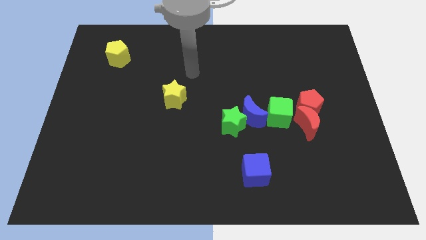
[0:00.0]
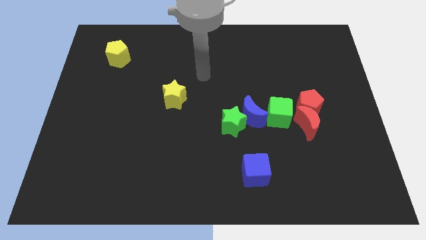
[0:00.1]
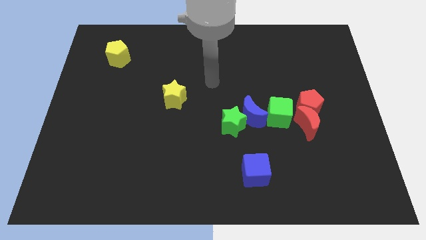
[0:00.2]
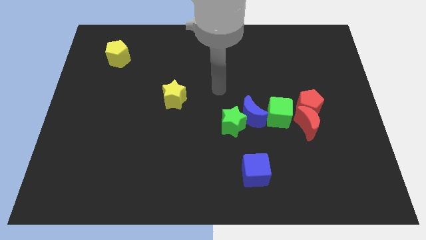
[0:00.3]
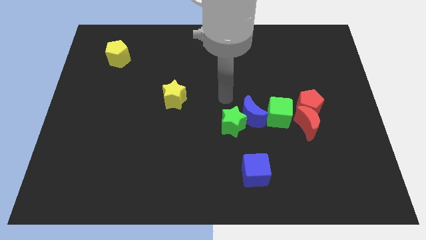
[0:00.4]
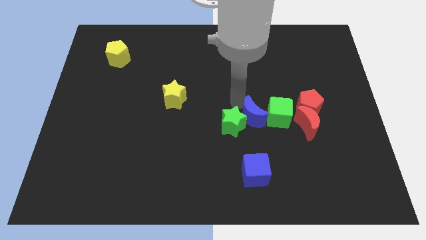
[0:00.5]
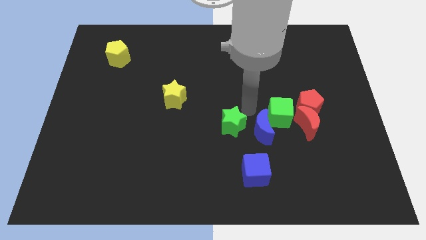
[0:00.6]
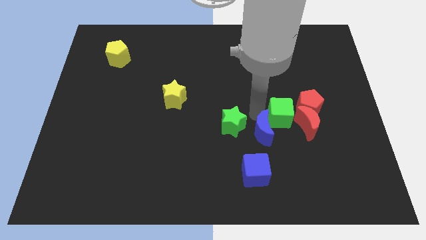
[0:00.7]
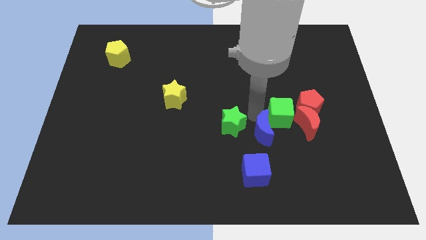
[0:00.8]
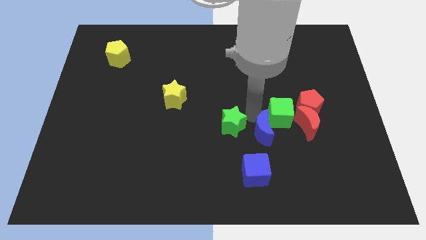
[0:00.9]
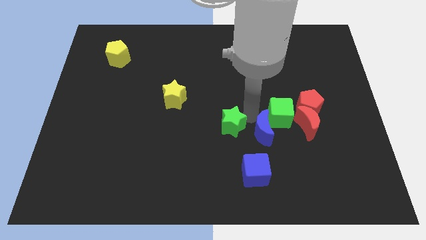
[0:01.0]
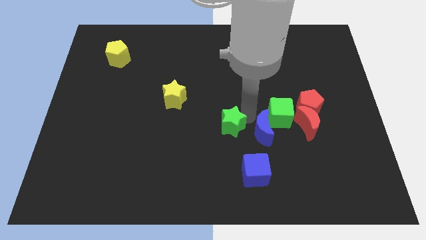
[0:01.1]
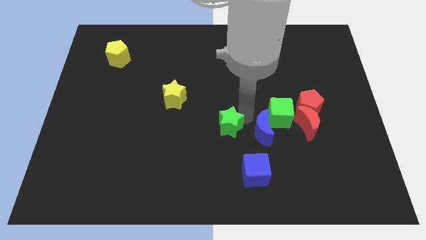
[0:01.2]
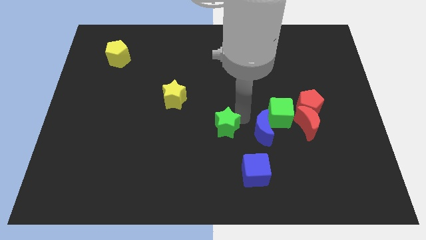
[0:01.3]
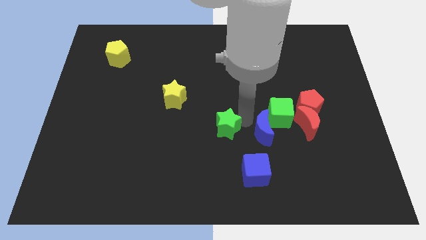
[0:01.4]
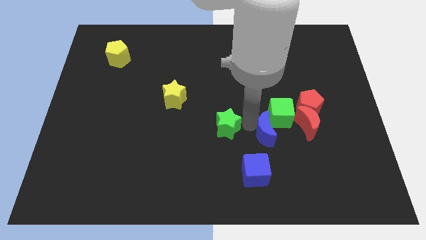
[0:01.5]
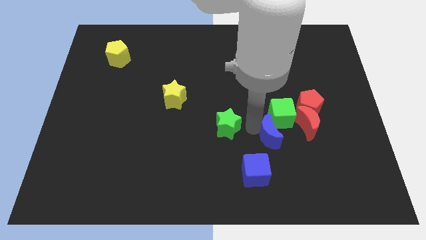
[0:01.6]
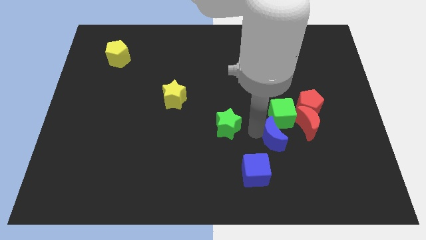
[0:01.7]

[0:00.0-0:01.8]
move the green star away from the blue moon

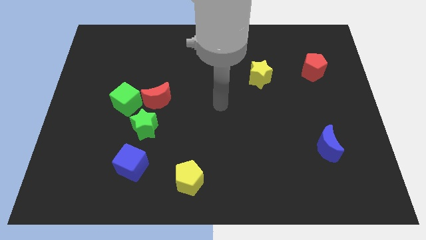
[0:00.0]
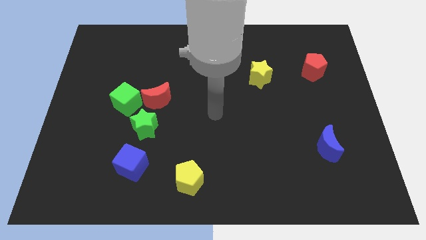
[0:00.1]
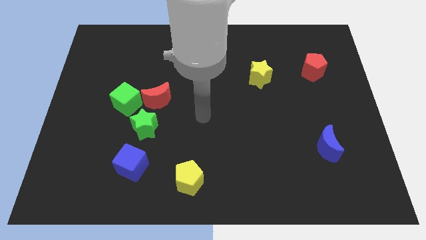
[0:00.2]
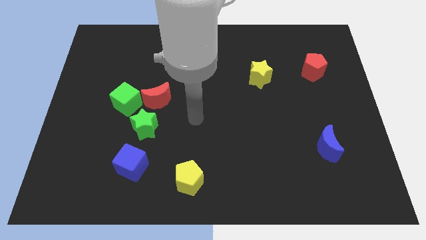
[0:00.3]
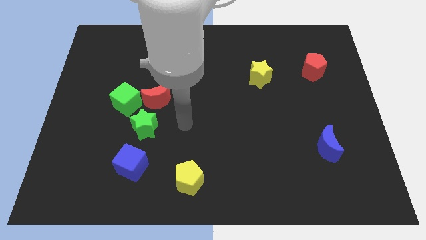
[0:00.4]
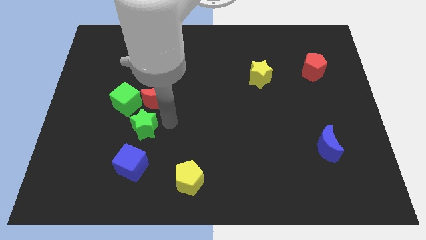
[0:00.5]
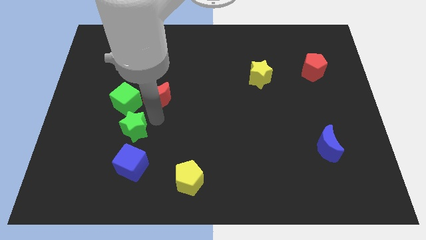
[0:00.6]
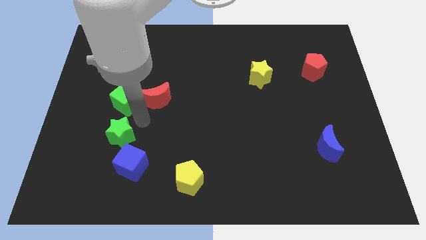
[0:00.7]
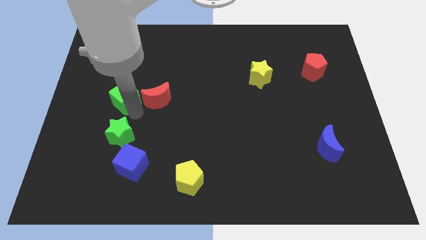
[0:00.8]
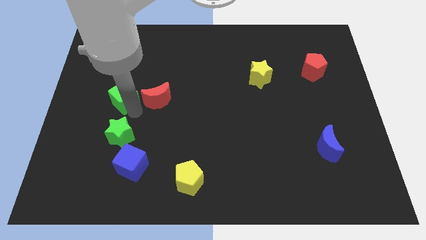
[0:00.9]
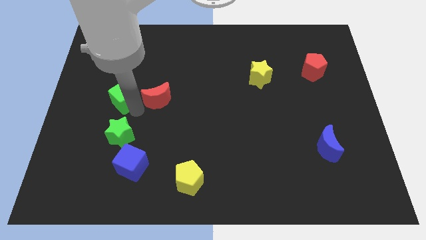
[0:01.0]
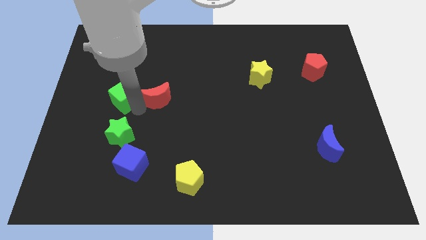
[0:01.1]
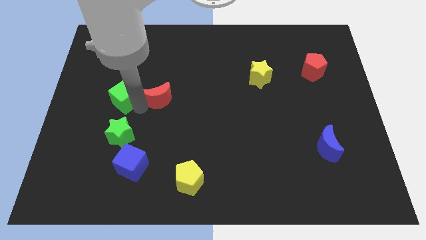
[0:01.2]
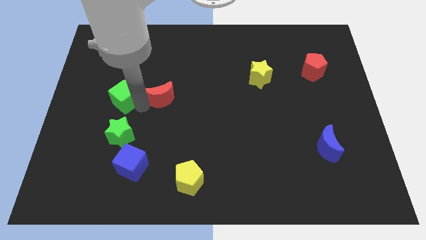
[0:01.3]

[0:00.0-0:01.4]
pull the red moon apart from the green cube and green star

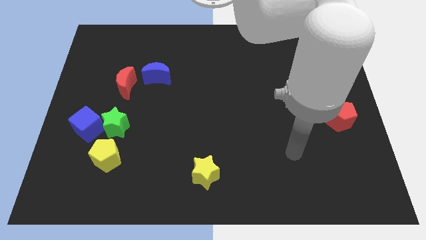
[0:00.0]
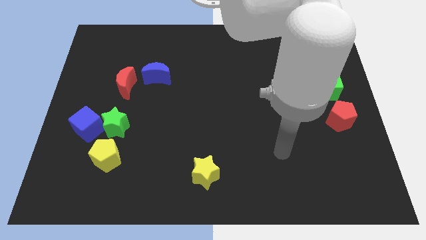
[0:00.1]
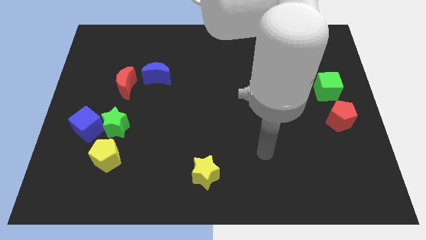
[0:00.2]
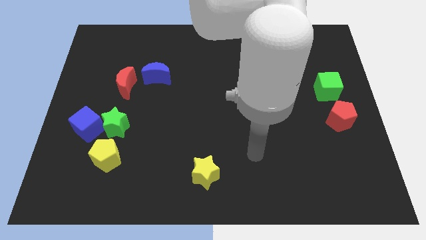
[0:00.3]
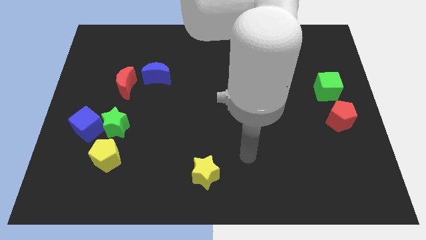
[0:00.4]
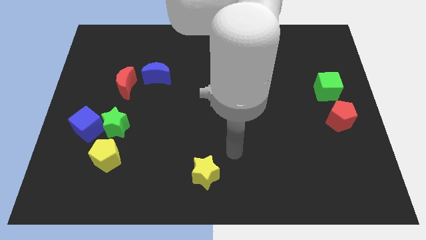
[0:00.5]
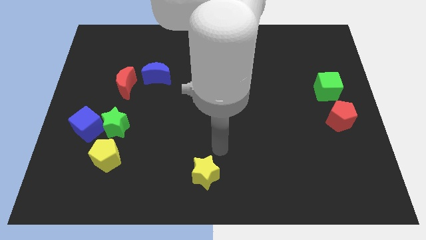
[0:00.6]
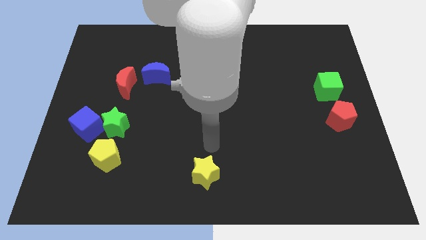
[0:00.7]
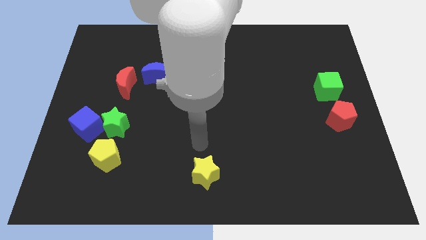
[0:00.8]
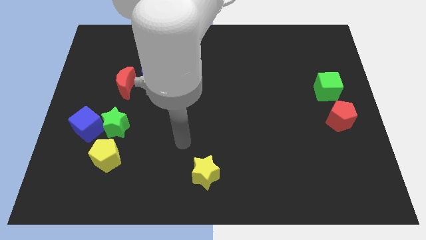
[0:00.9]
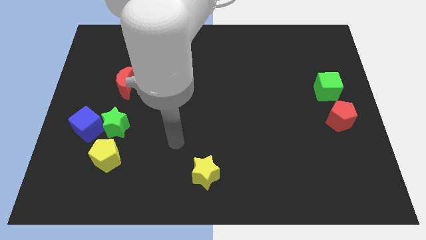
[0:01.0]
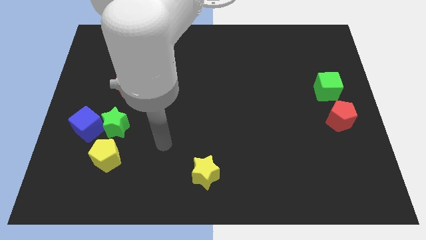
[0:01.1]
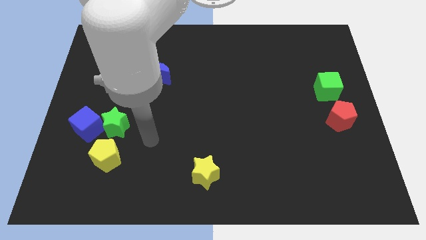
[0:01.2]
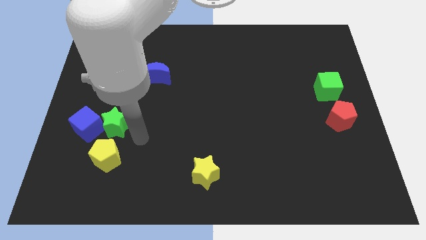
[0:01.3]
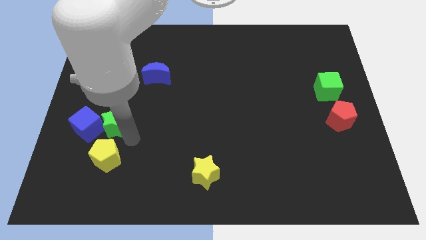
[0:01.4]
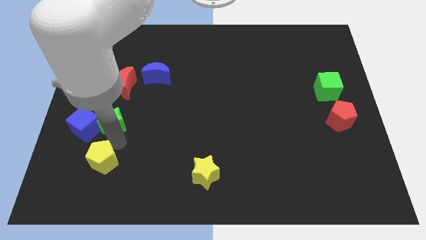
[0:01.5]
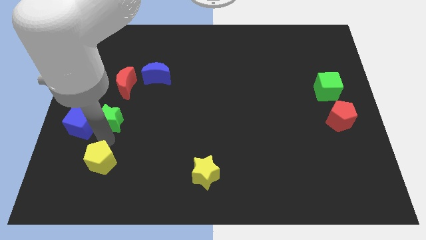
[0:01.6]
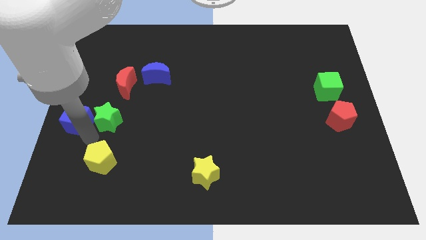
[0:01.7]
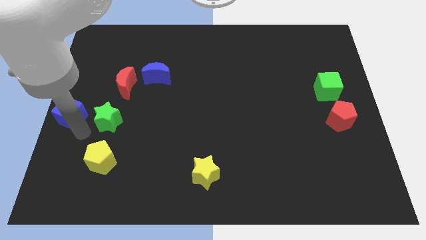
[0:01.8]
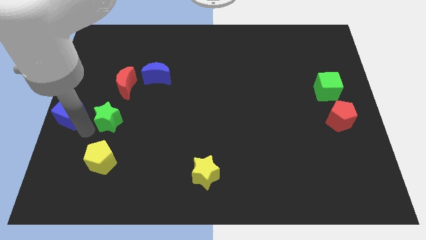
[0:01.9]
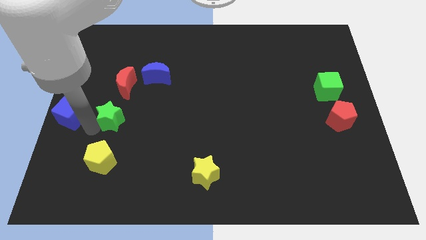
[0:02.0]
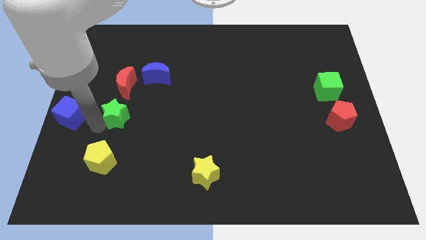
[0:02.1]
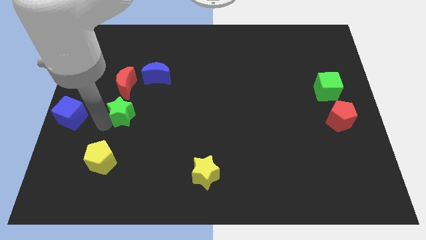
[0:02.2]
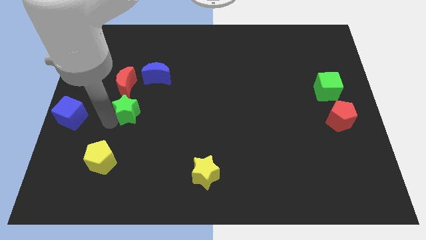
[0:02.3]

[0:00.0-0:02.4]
move the green star away from the blue cube and yellow pentagon

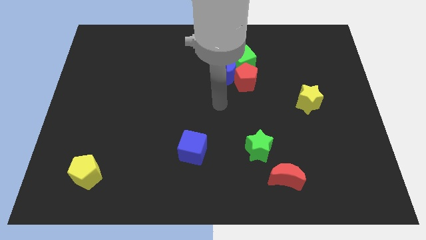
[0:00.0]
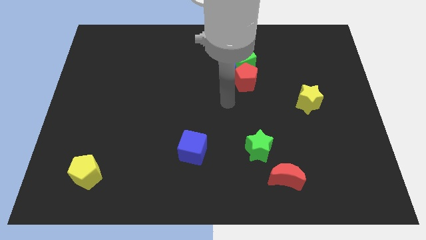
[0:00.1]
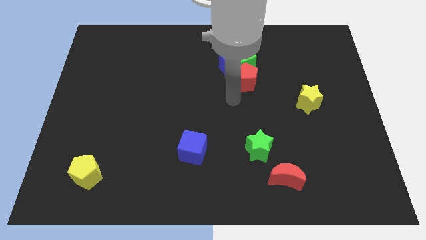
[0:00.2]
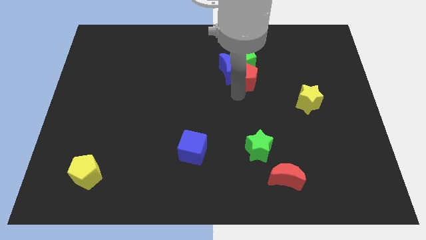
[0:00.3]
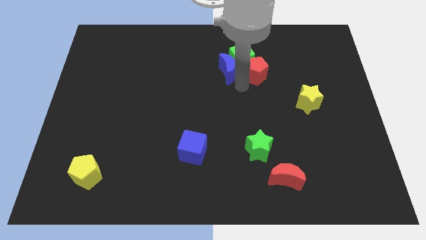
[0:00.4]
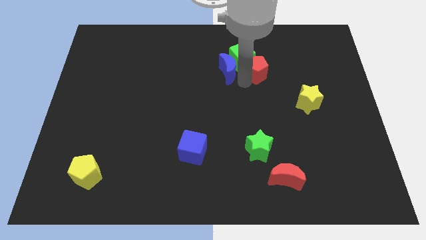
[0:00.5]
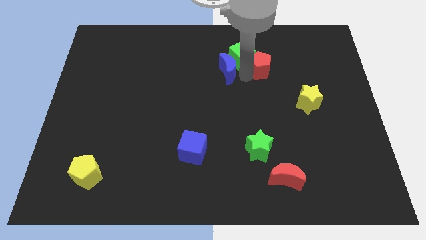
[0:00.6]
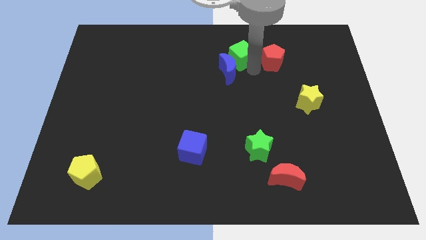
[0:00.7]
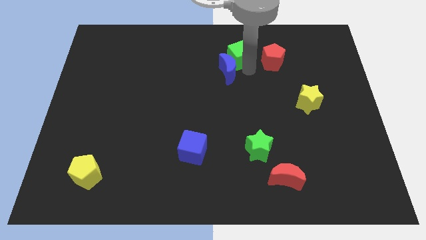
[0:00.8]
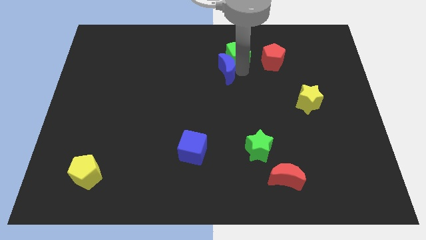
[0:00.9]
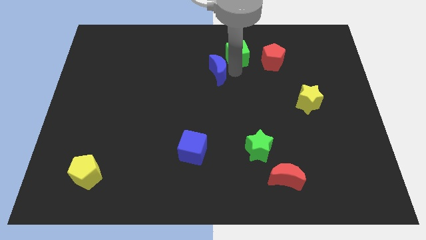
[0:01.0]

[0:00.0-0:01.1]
move the blue moon away from the green cube and red pentagon

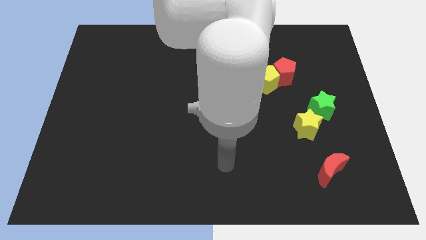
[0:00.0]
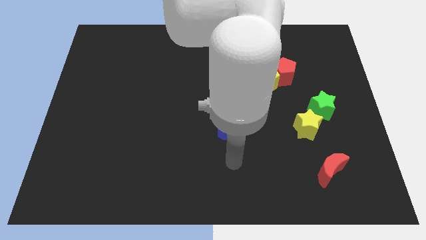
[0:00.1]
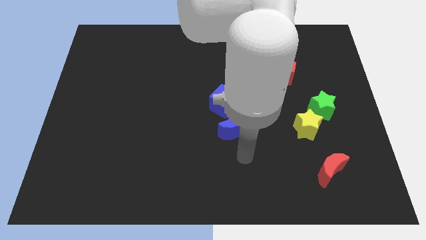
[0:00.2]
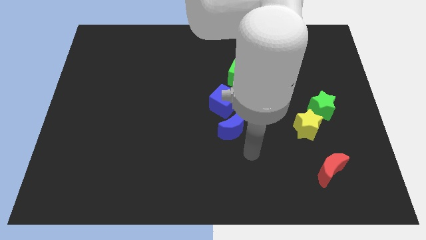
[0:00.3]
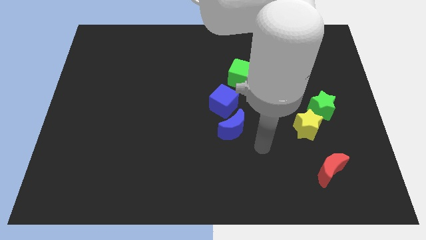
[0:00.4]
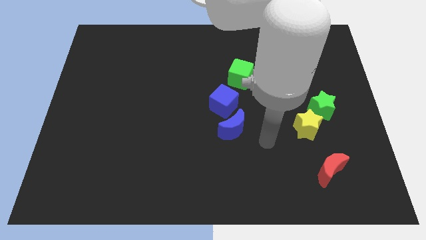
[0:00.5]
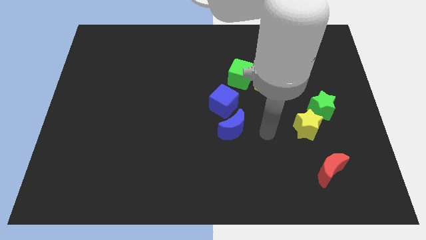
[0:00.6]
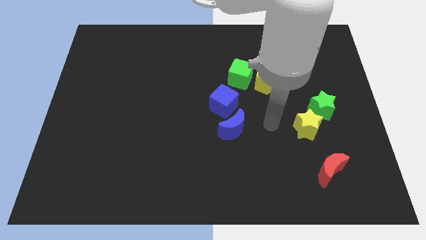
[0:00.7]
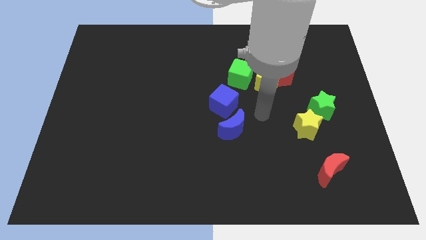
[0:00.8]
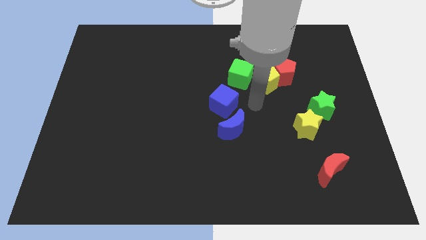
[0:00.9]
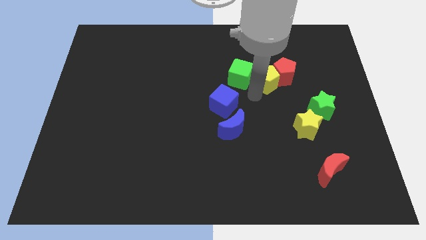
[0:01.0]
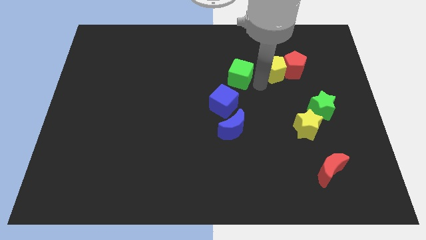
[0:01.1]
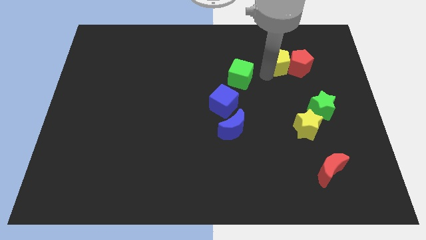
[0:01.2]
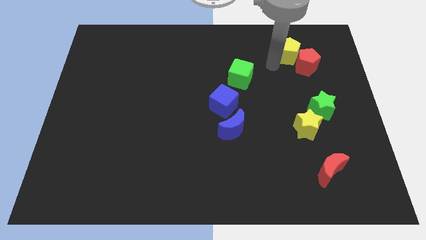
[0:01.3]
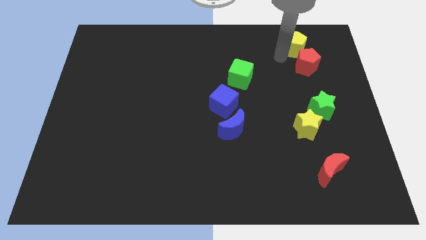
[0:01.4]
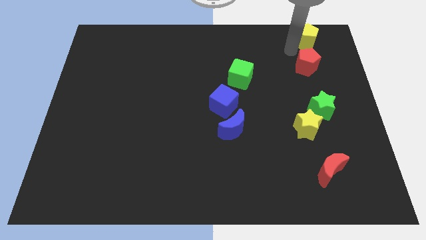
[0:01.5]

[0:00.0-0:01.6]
move the red pentagon away from the yellow pentagon

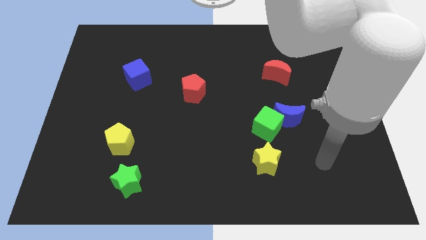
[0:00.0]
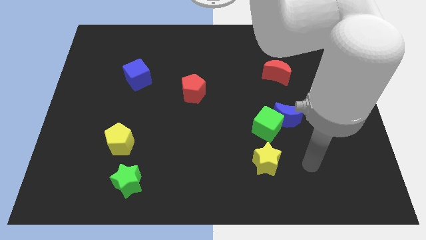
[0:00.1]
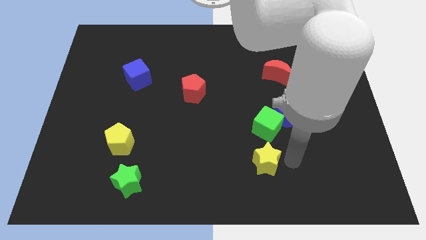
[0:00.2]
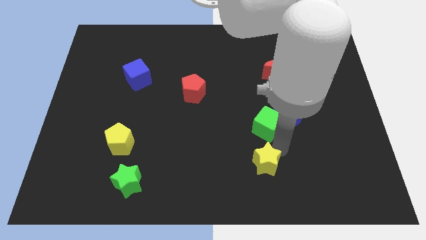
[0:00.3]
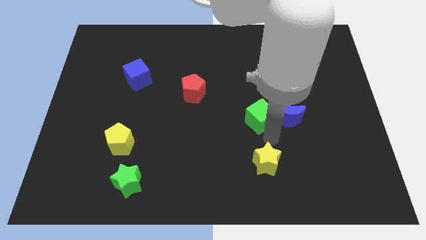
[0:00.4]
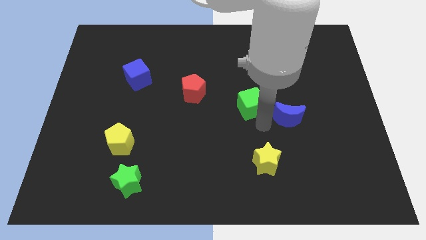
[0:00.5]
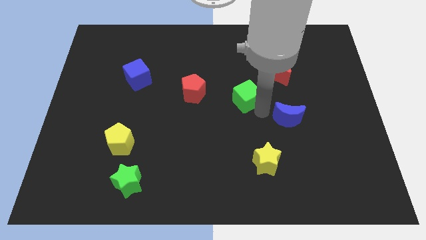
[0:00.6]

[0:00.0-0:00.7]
pull the blue moon apart from the green cube

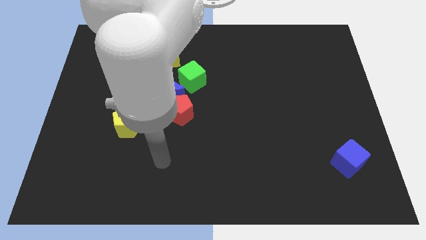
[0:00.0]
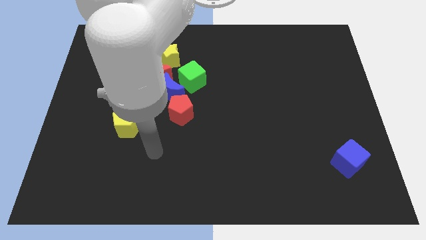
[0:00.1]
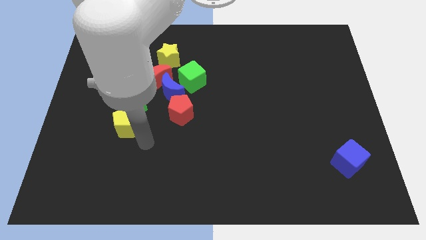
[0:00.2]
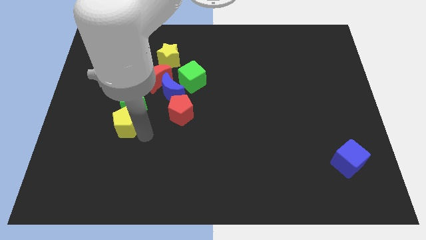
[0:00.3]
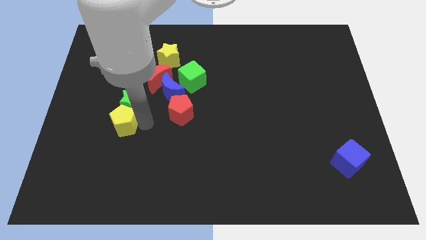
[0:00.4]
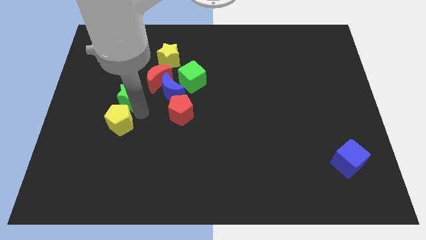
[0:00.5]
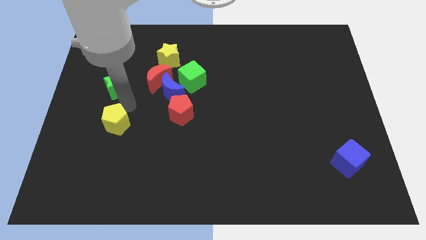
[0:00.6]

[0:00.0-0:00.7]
move the yellow pentagon away from the green star
